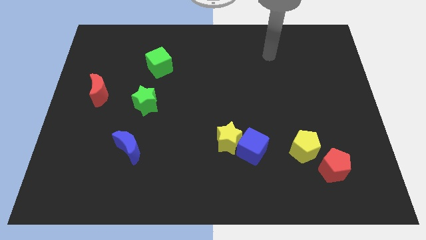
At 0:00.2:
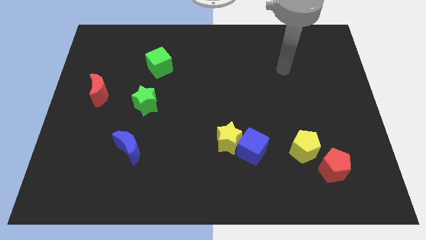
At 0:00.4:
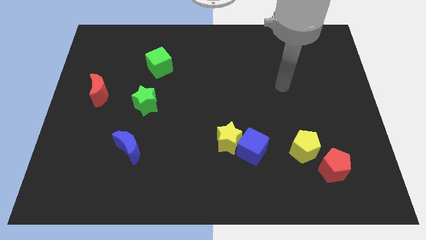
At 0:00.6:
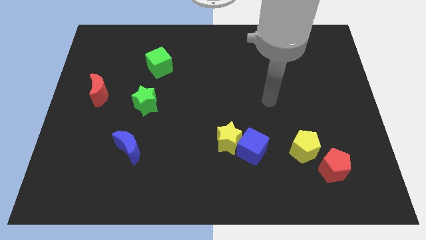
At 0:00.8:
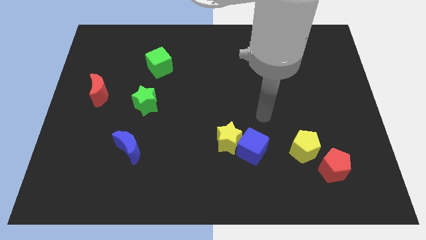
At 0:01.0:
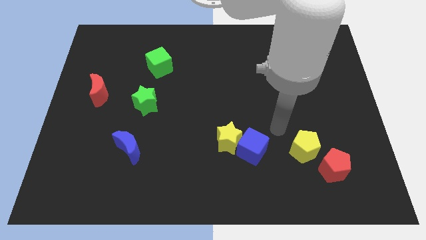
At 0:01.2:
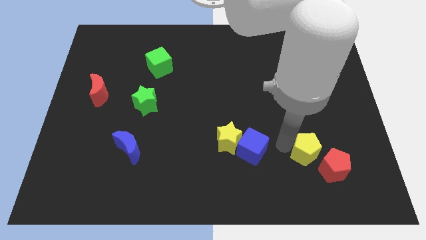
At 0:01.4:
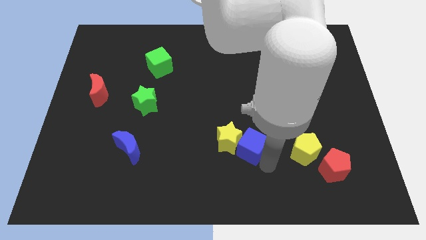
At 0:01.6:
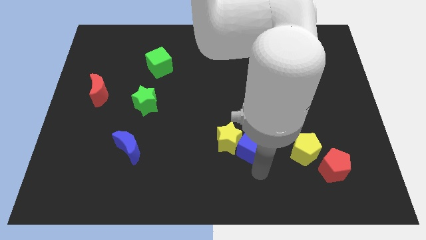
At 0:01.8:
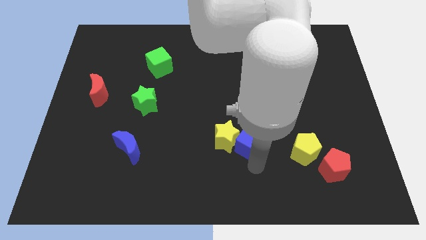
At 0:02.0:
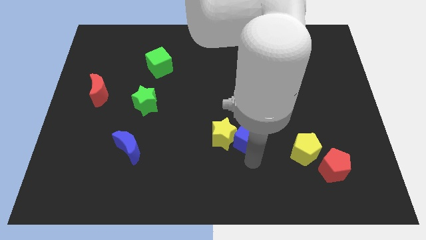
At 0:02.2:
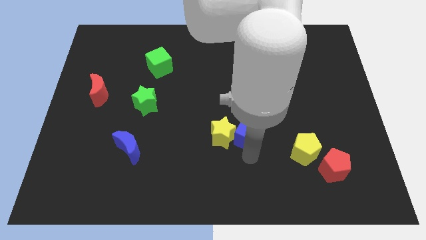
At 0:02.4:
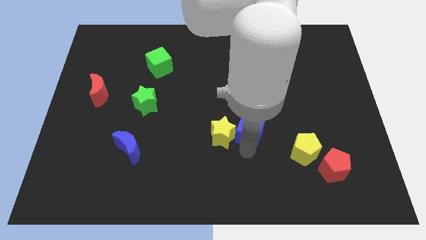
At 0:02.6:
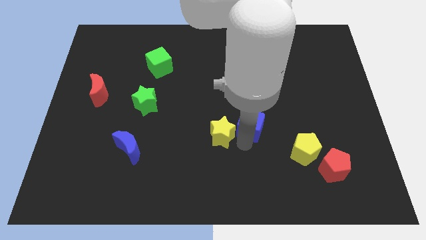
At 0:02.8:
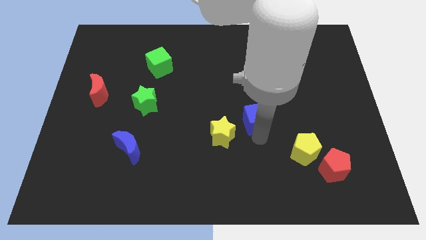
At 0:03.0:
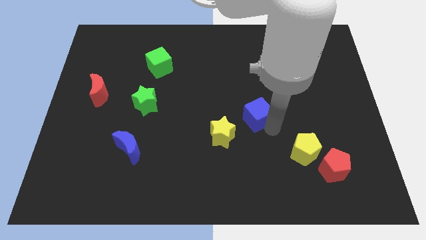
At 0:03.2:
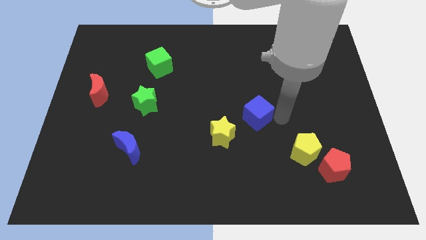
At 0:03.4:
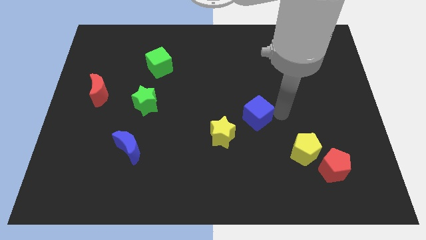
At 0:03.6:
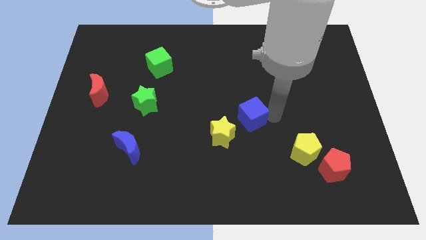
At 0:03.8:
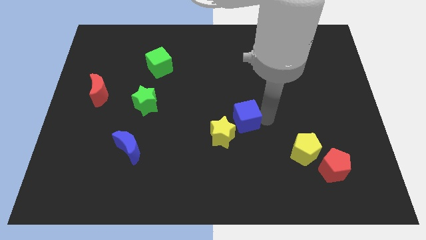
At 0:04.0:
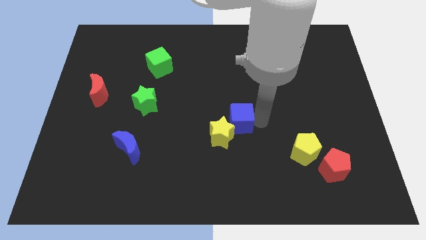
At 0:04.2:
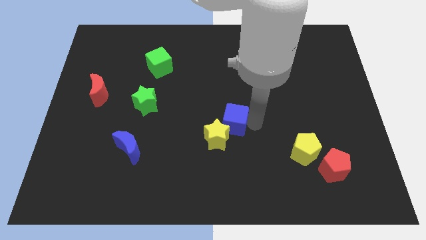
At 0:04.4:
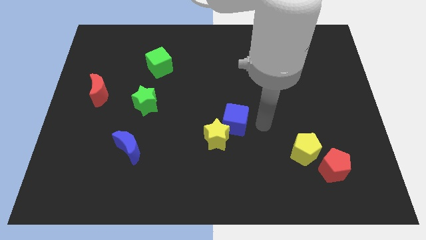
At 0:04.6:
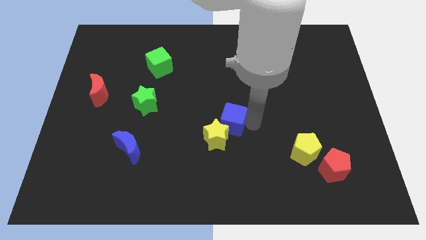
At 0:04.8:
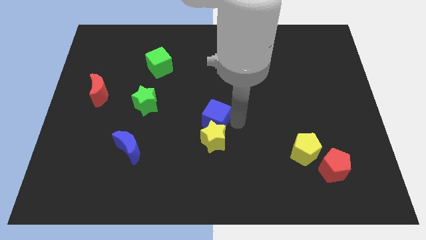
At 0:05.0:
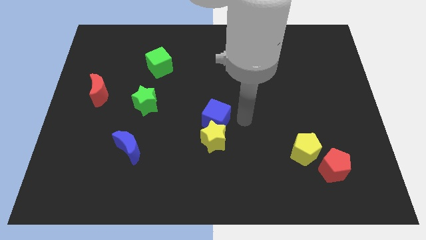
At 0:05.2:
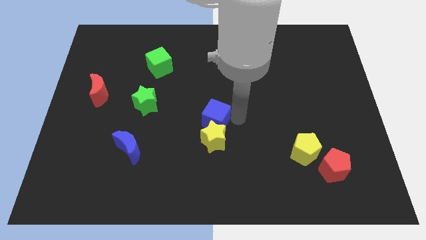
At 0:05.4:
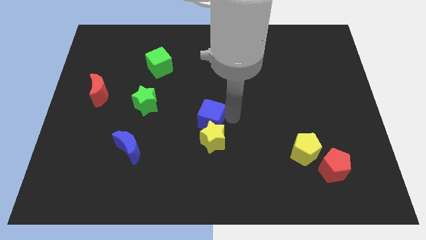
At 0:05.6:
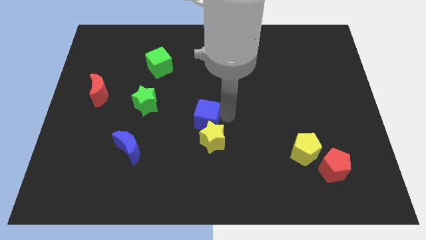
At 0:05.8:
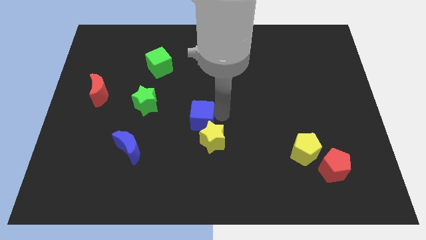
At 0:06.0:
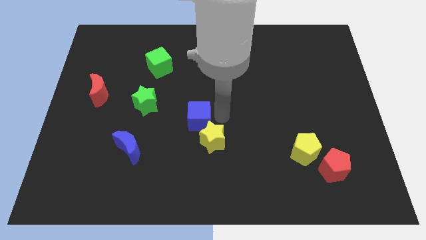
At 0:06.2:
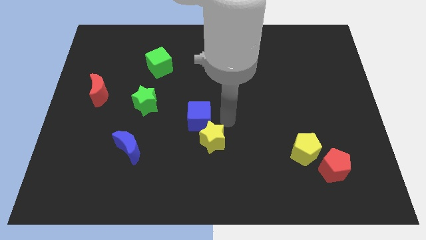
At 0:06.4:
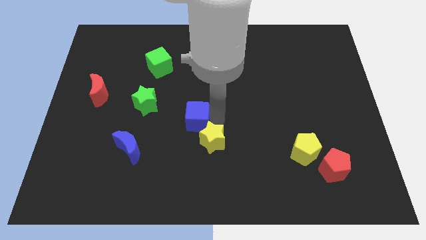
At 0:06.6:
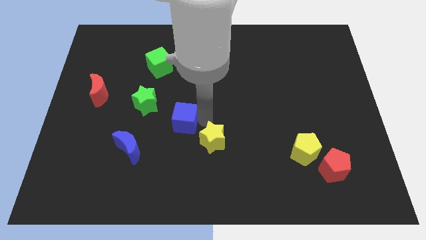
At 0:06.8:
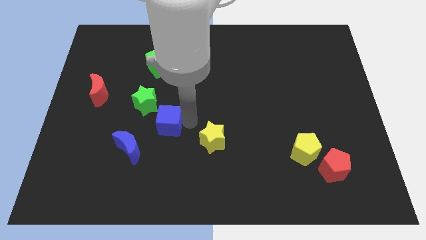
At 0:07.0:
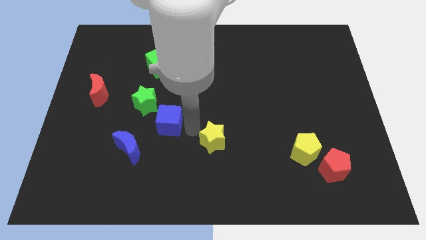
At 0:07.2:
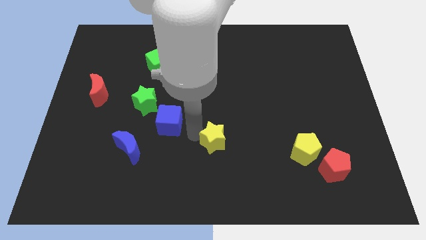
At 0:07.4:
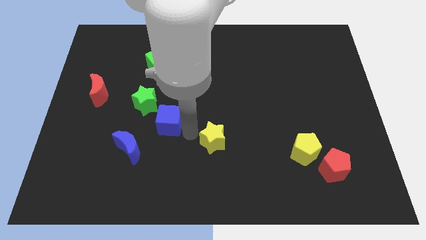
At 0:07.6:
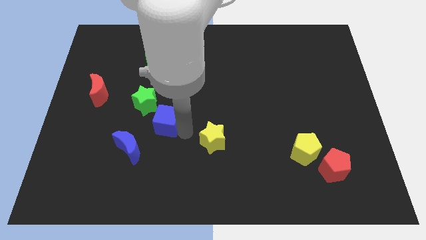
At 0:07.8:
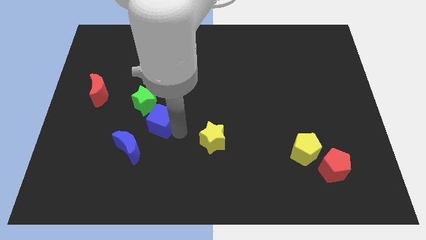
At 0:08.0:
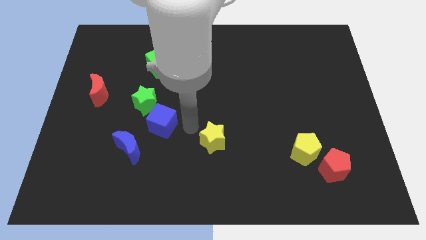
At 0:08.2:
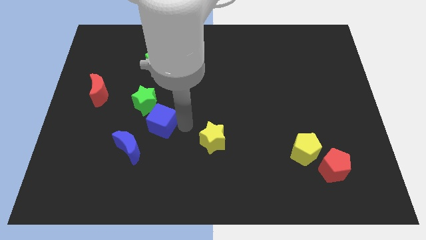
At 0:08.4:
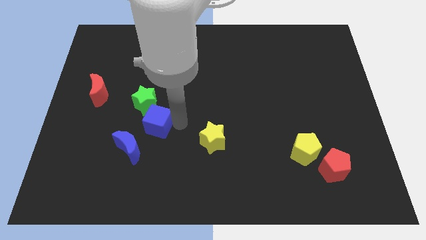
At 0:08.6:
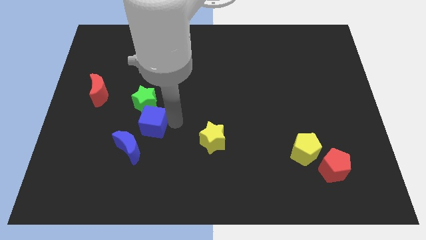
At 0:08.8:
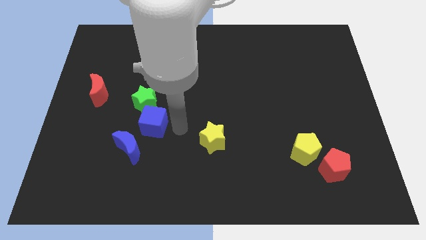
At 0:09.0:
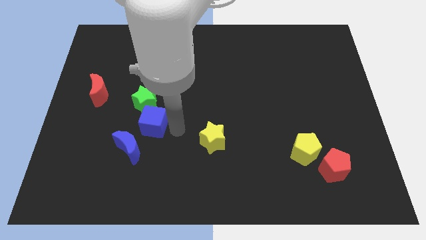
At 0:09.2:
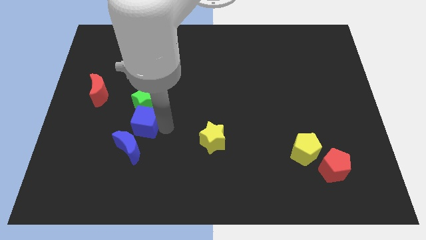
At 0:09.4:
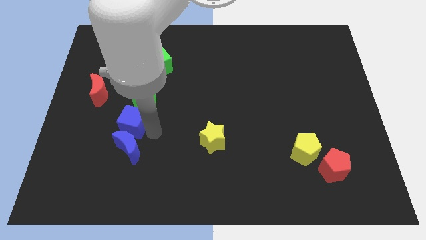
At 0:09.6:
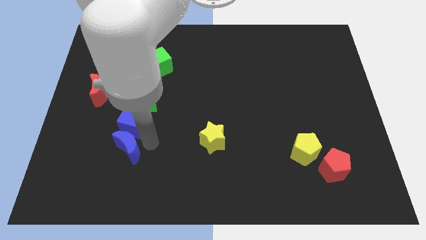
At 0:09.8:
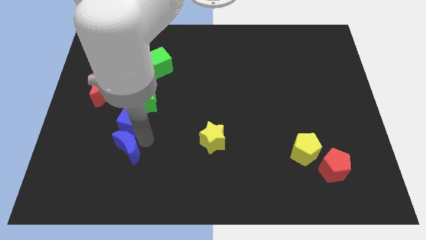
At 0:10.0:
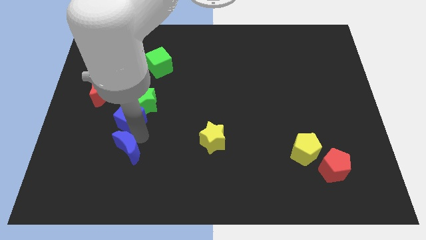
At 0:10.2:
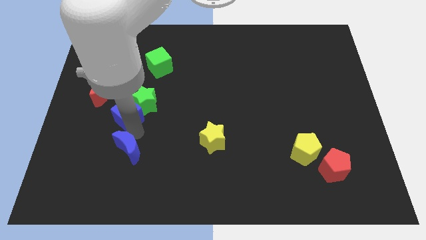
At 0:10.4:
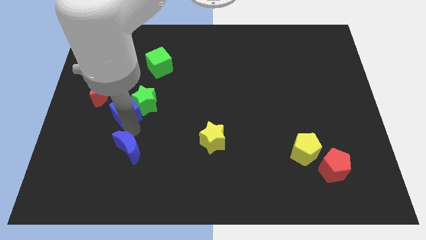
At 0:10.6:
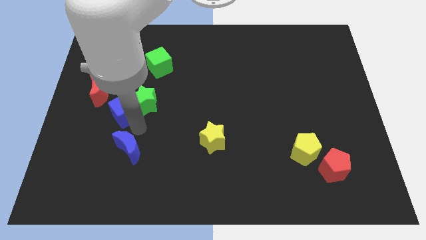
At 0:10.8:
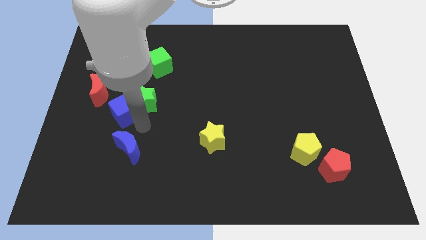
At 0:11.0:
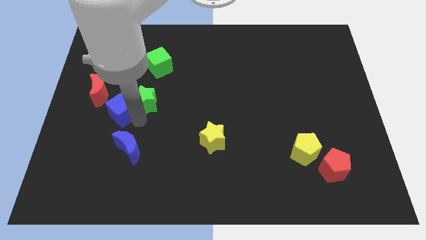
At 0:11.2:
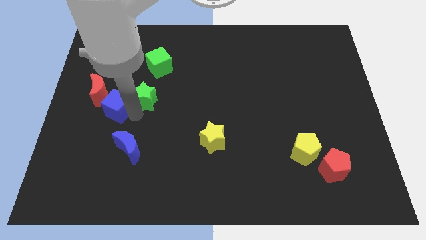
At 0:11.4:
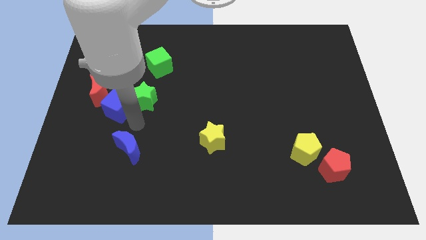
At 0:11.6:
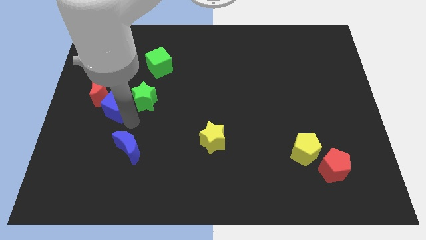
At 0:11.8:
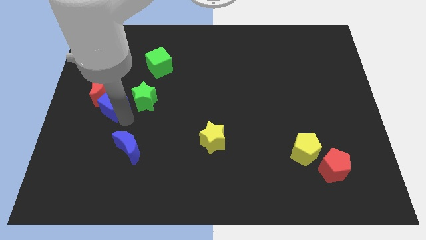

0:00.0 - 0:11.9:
slide the blue cube close to the red moon

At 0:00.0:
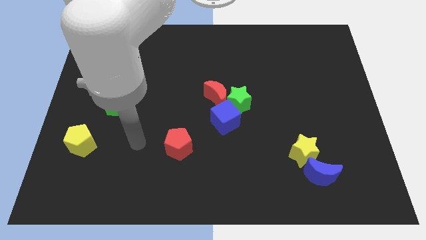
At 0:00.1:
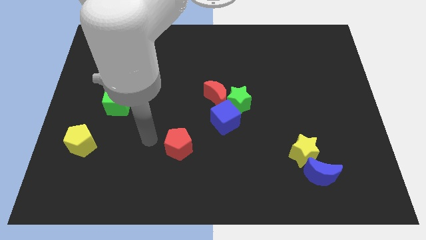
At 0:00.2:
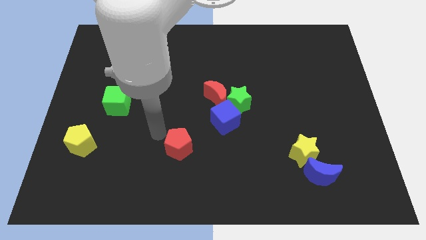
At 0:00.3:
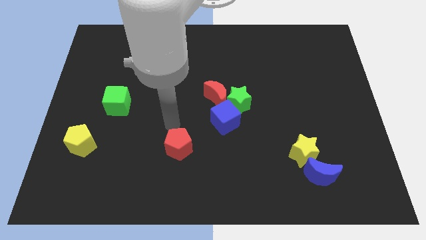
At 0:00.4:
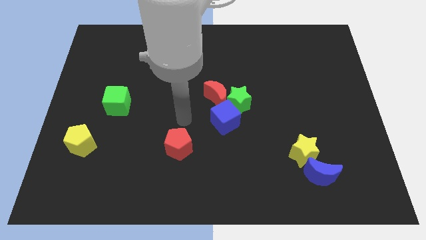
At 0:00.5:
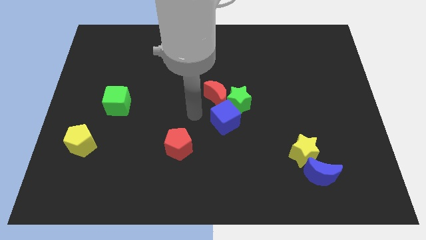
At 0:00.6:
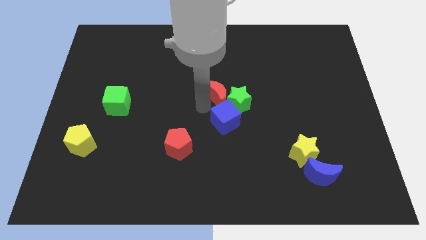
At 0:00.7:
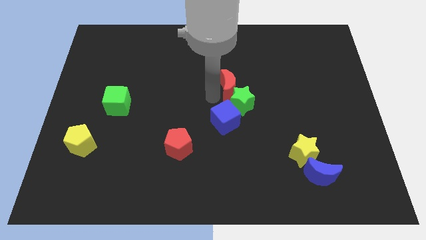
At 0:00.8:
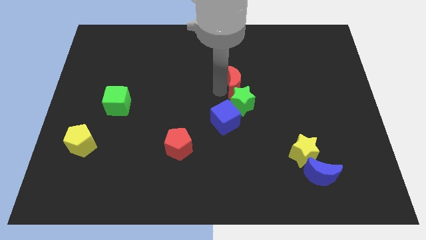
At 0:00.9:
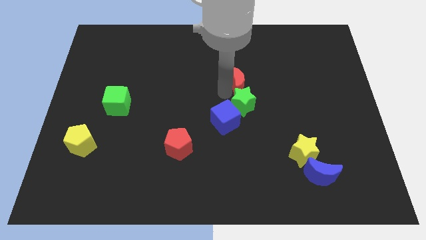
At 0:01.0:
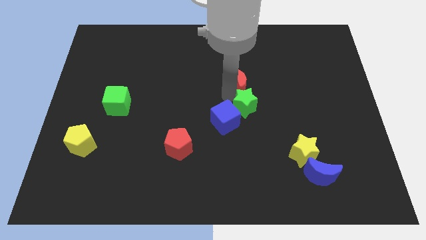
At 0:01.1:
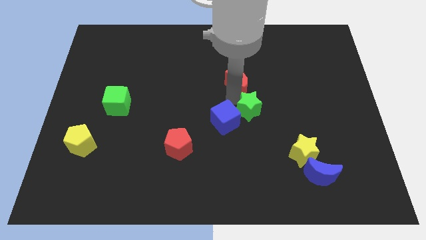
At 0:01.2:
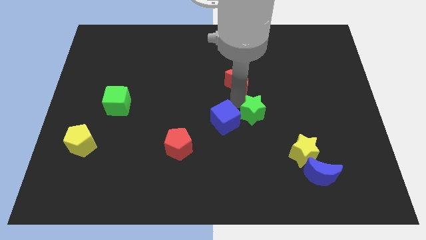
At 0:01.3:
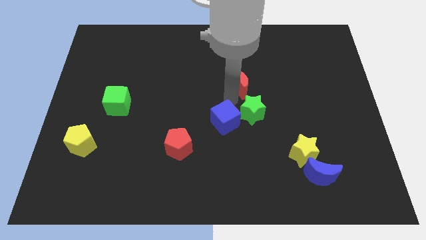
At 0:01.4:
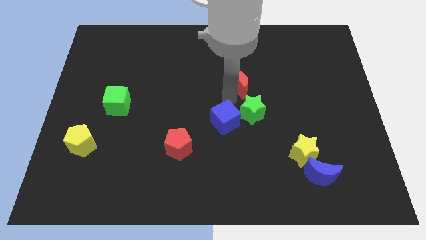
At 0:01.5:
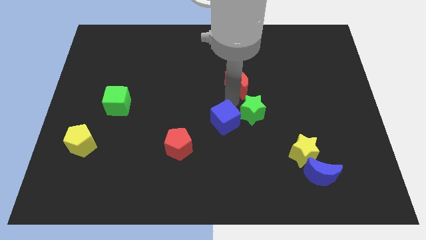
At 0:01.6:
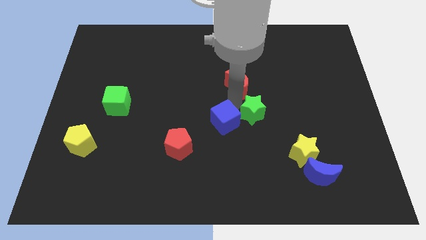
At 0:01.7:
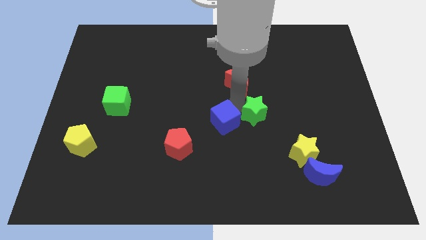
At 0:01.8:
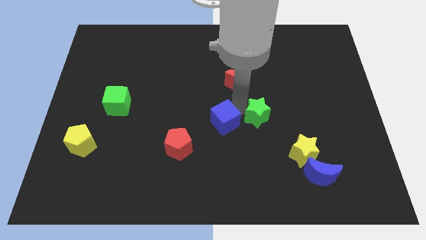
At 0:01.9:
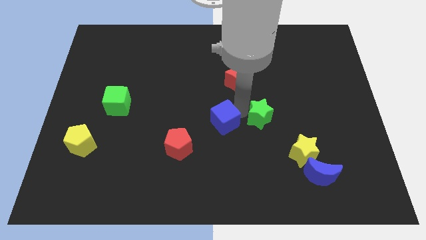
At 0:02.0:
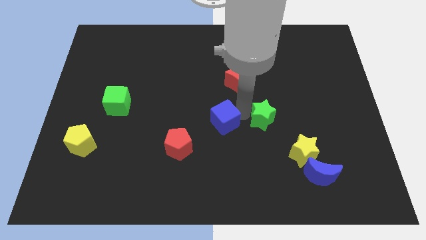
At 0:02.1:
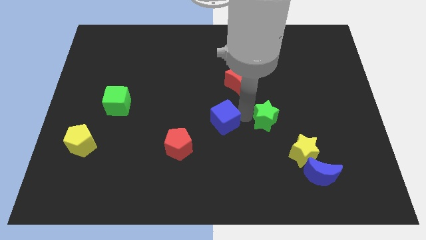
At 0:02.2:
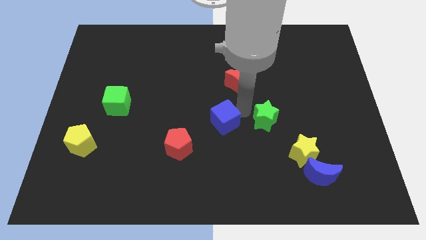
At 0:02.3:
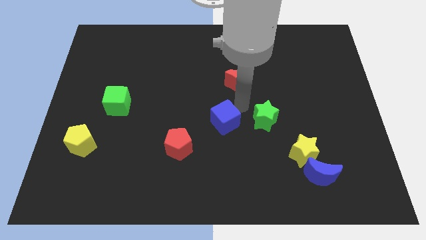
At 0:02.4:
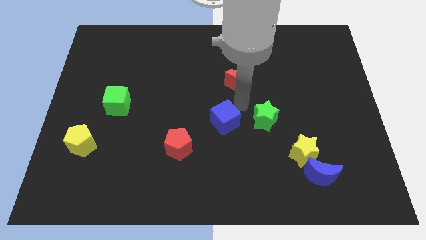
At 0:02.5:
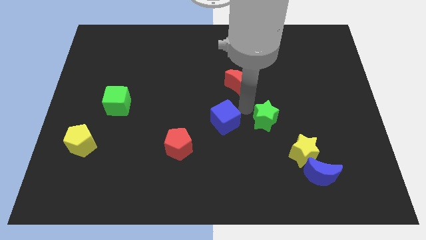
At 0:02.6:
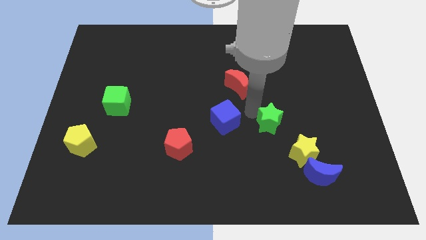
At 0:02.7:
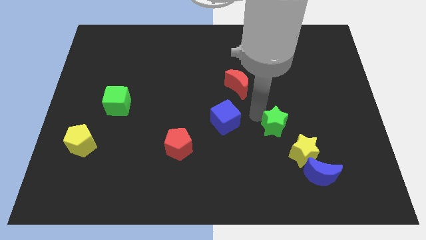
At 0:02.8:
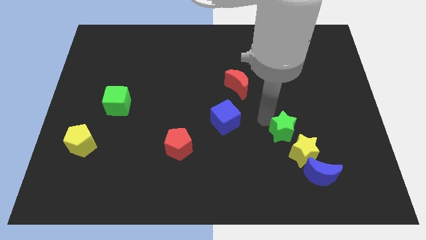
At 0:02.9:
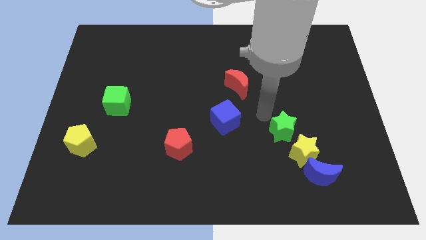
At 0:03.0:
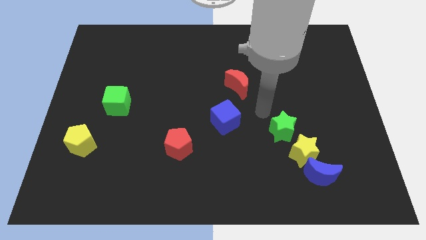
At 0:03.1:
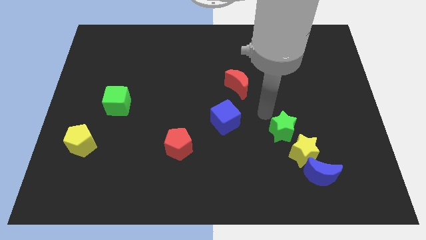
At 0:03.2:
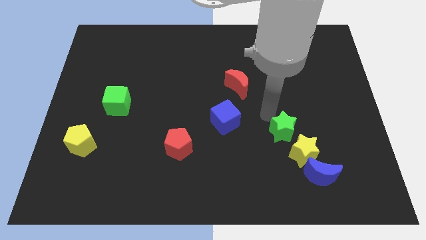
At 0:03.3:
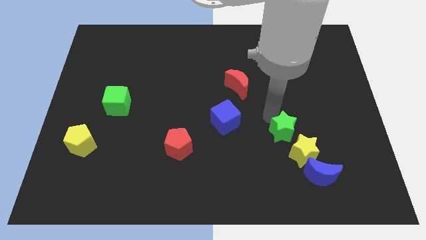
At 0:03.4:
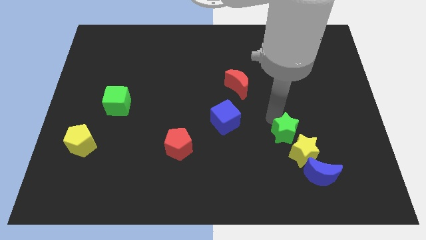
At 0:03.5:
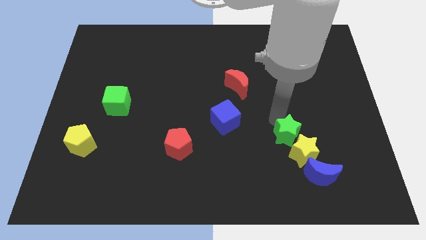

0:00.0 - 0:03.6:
slide the green star towards the yellow star
